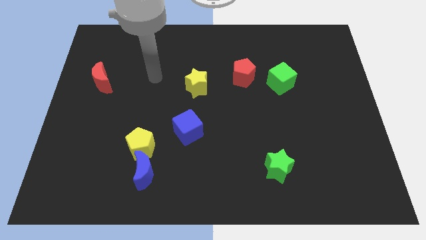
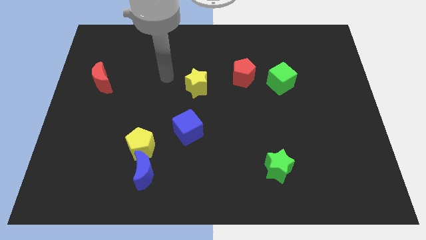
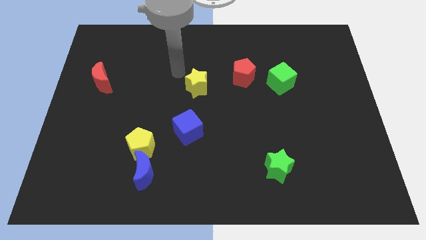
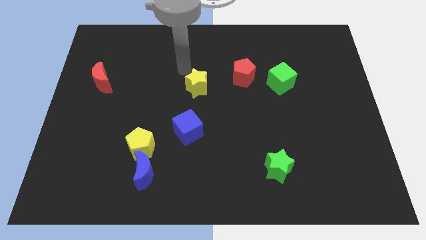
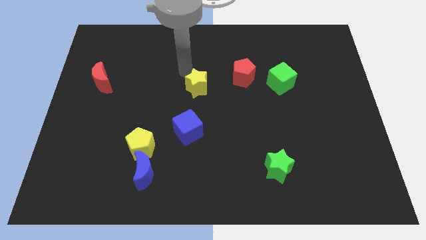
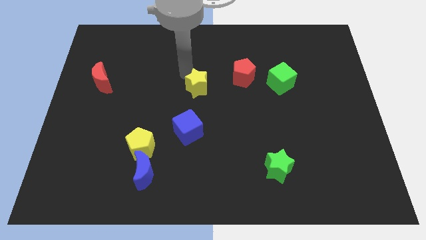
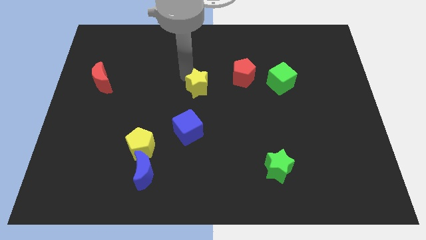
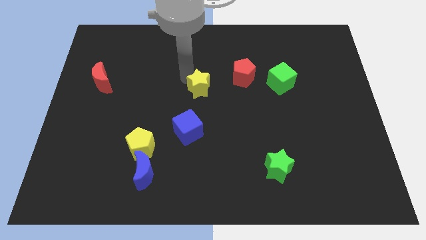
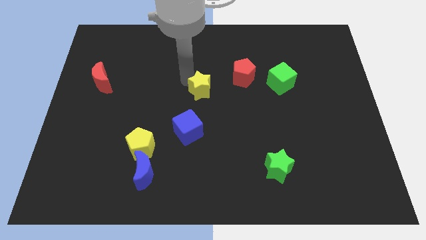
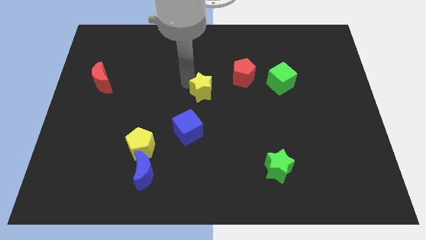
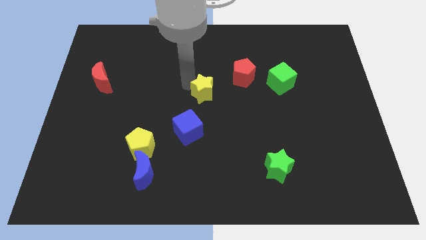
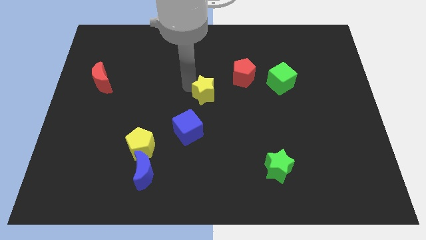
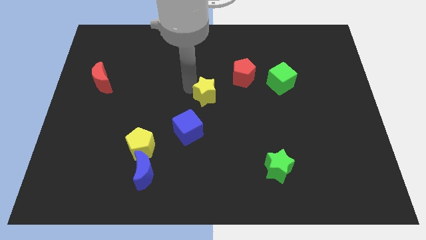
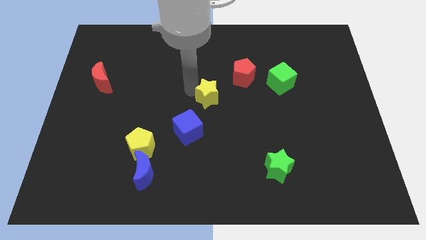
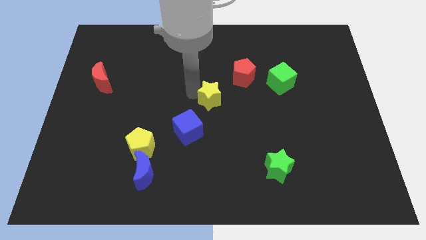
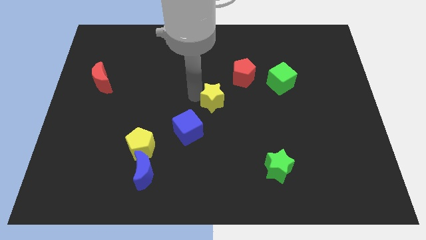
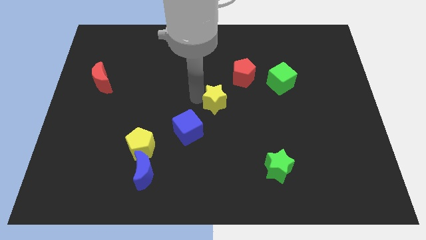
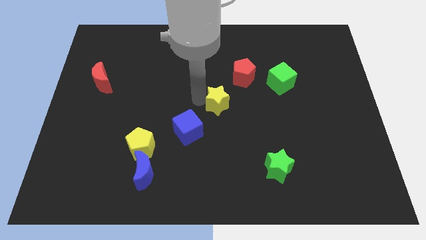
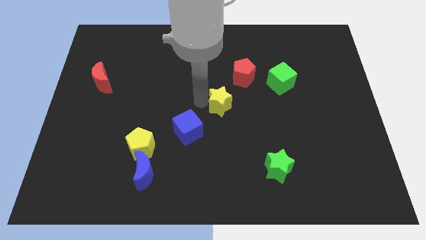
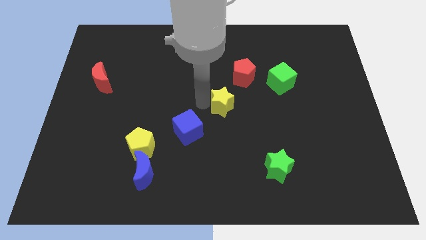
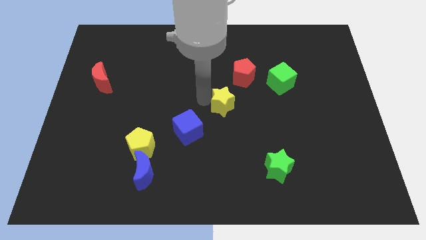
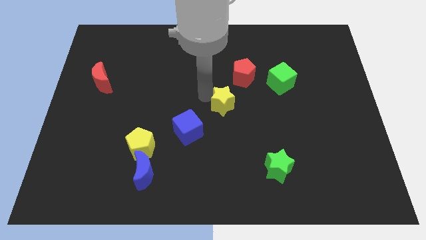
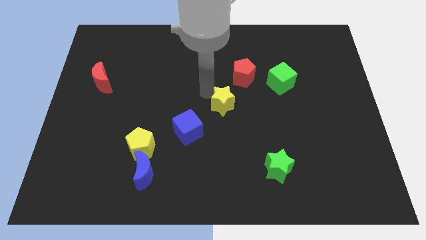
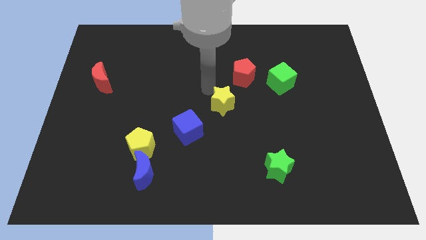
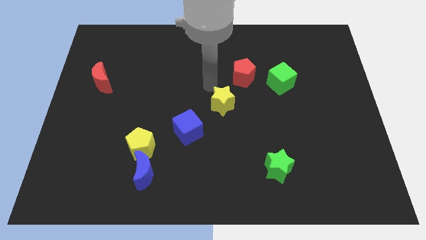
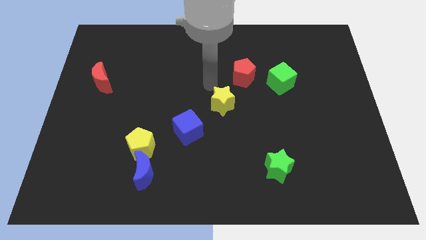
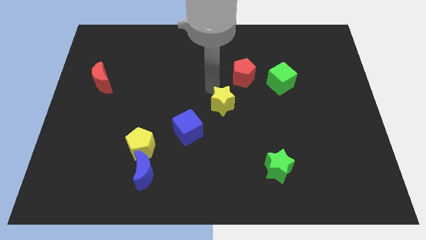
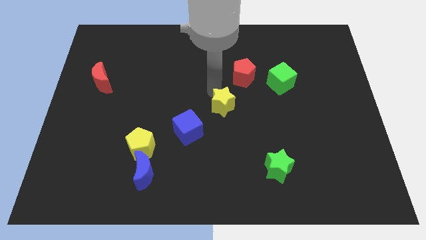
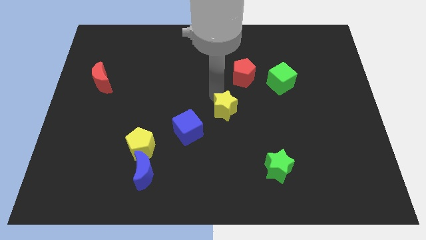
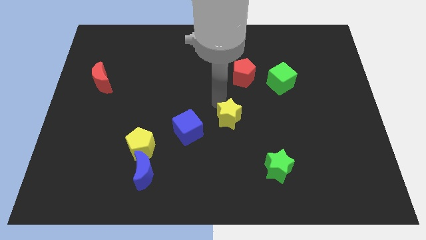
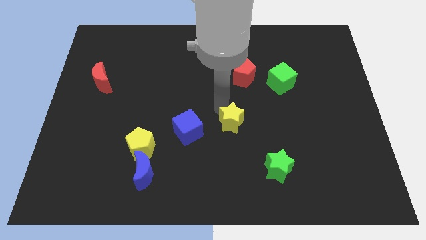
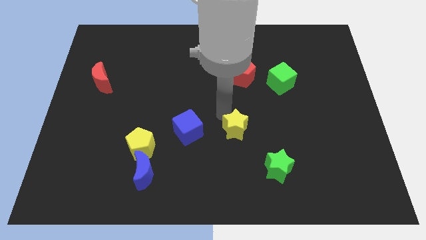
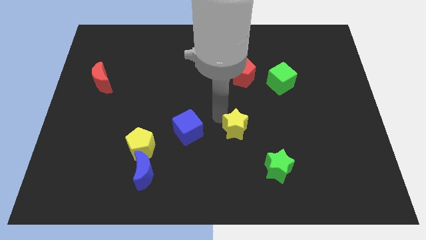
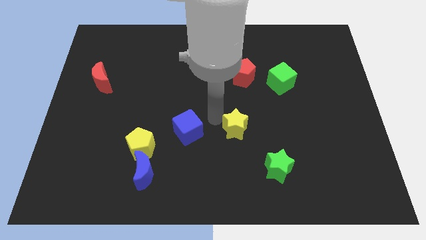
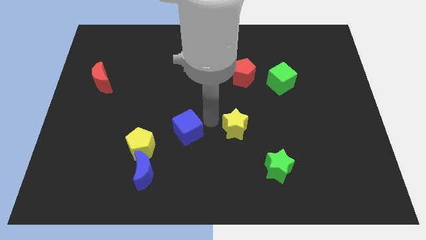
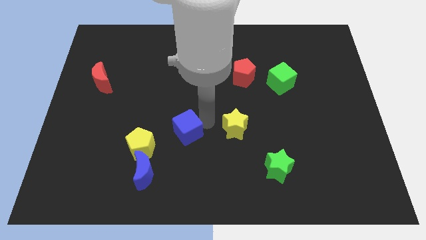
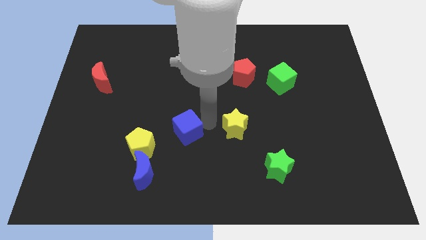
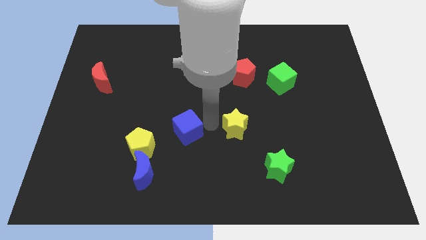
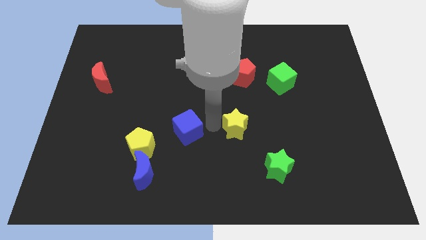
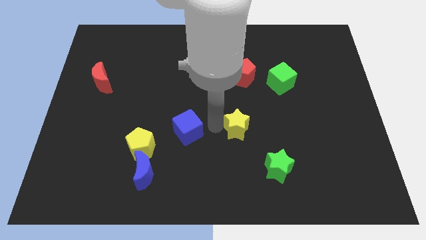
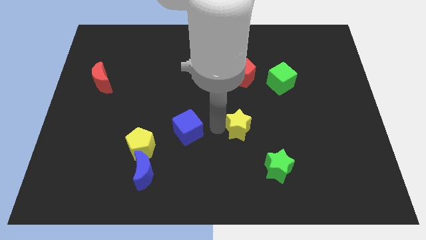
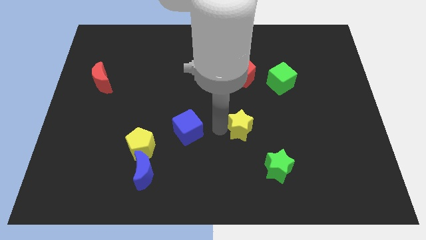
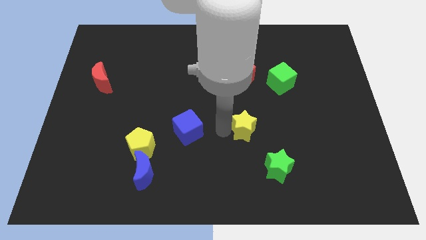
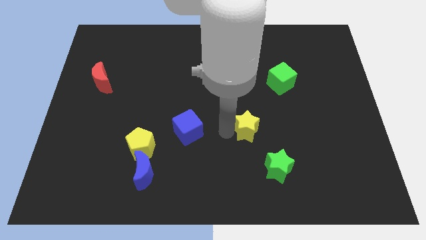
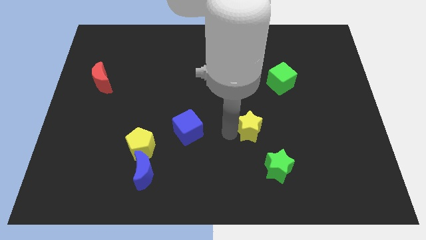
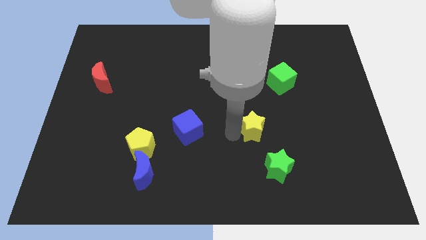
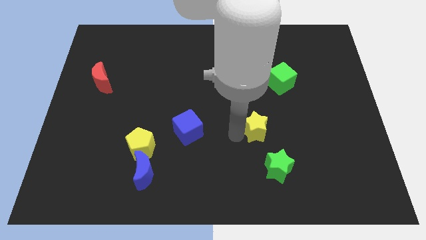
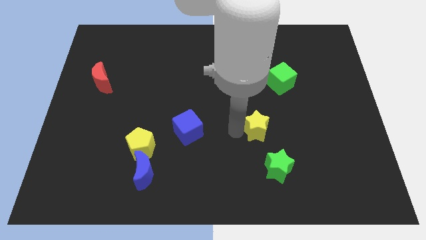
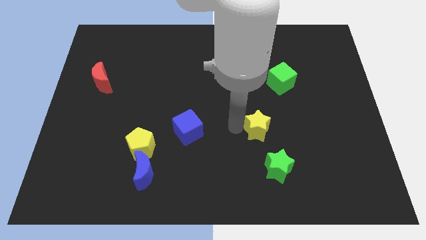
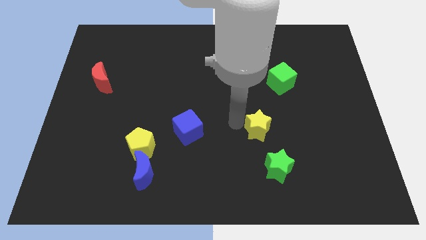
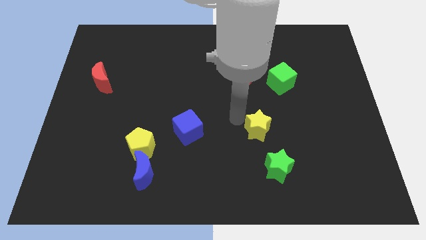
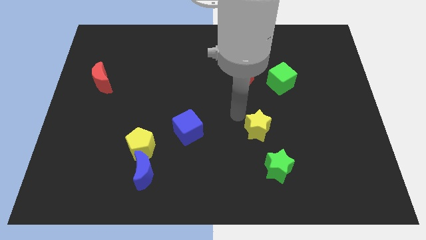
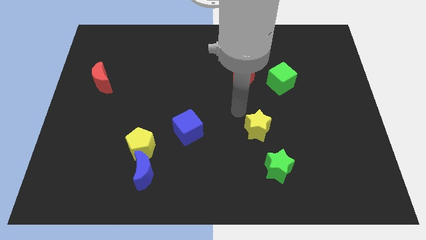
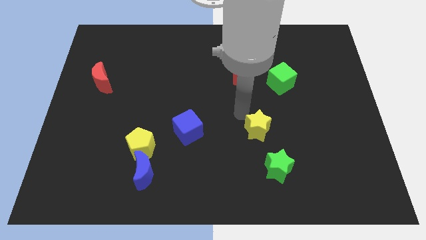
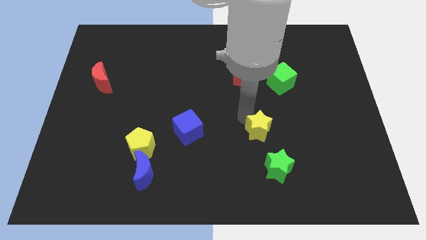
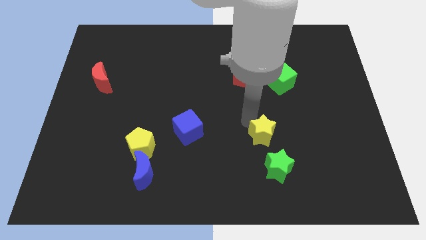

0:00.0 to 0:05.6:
move the yellow star diagonally down and to the right

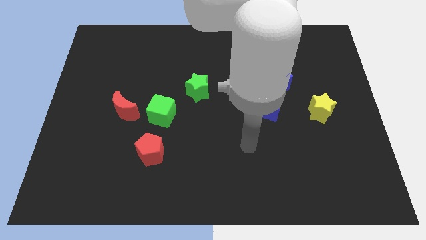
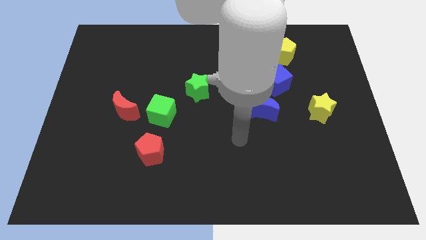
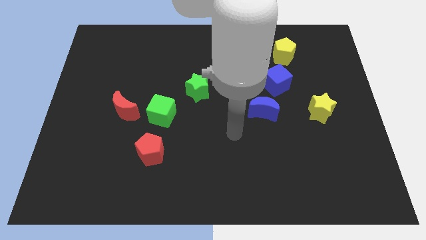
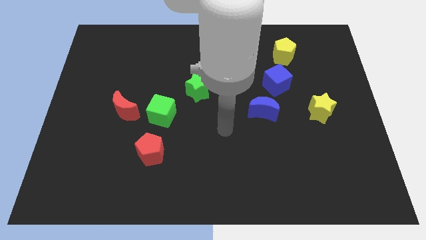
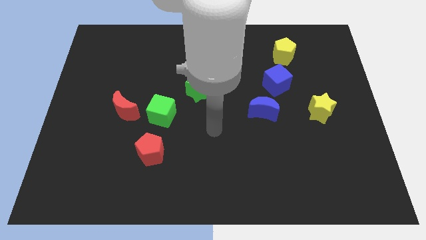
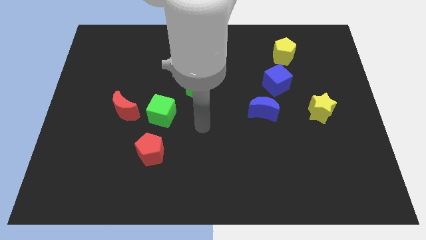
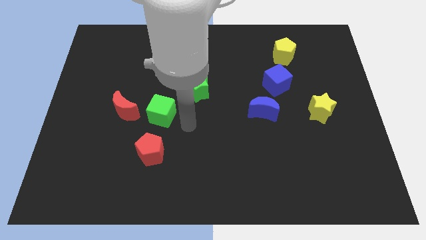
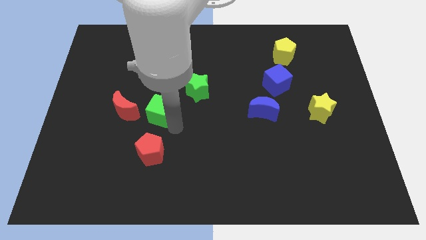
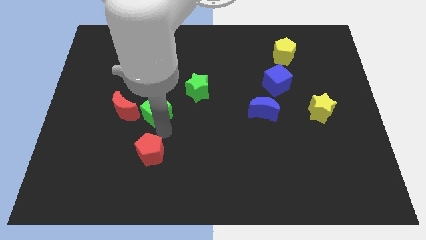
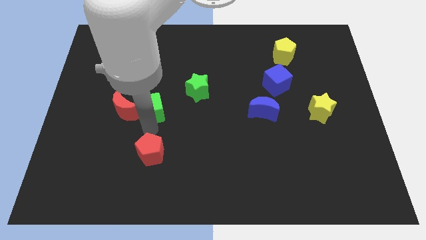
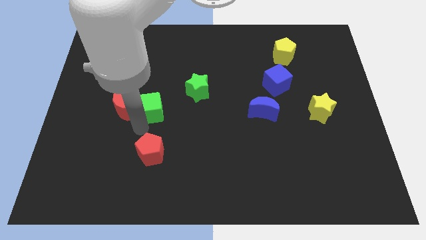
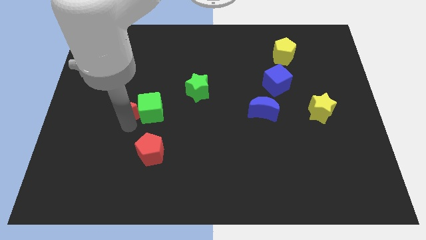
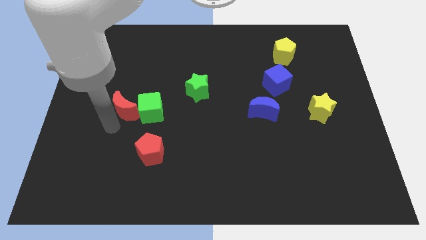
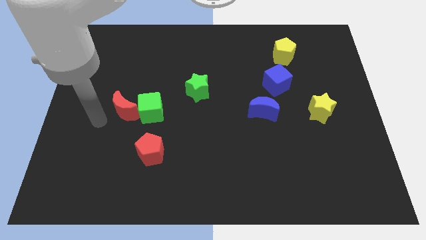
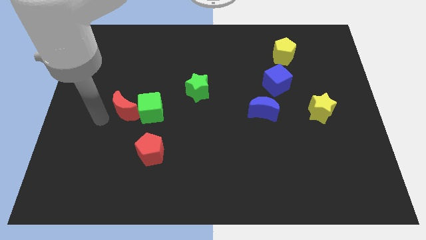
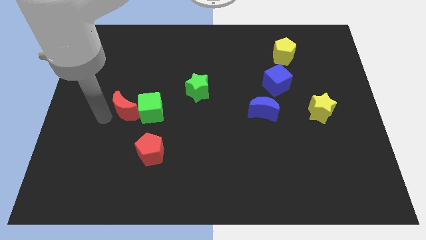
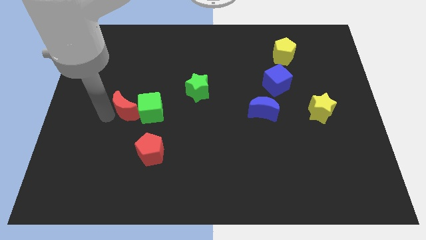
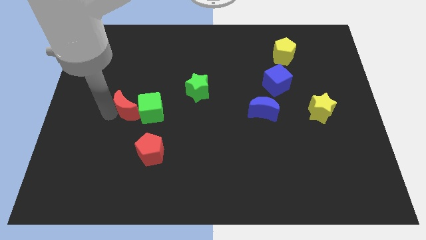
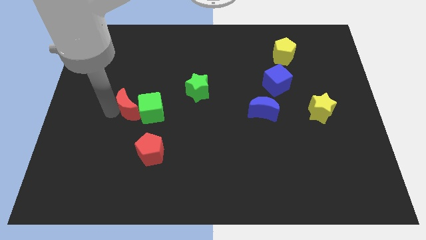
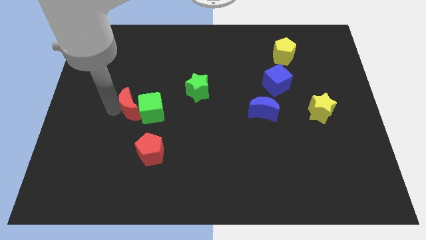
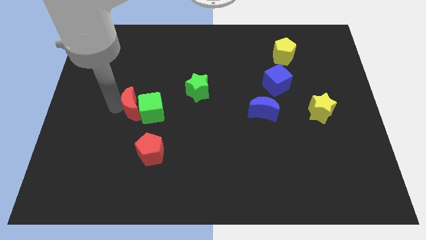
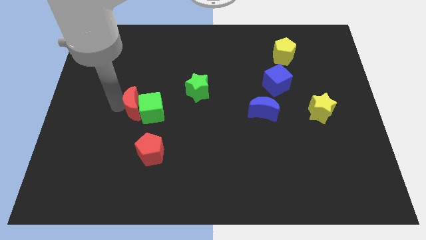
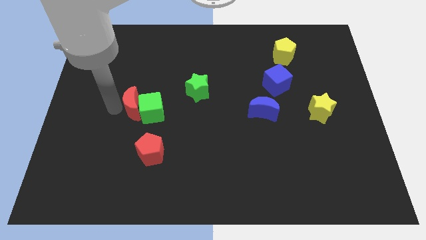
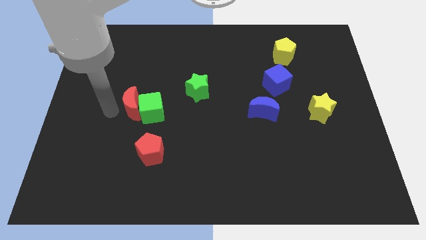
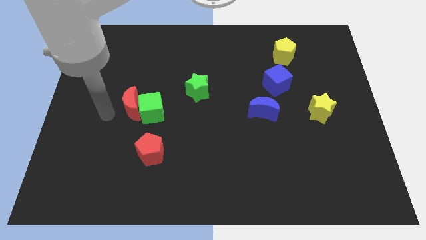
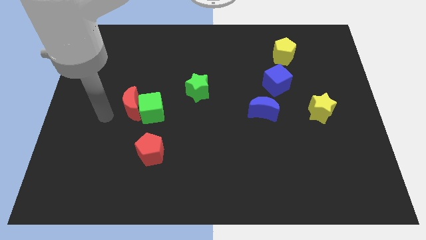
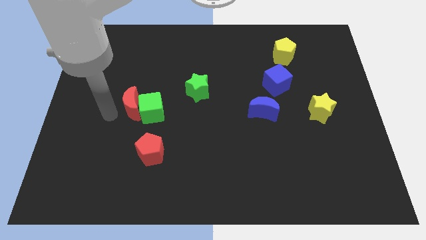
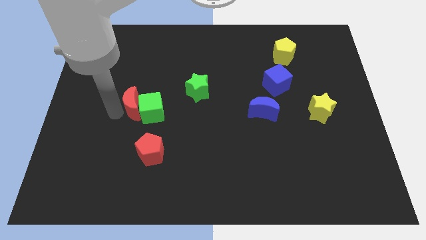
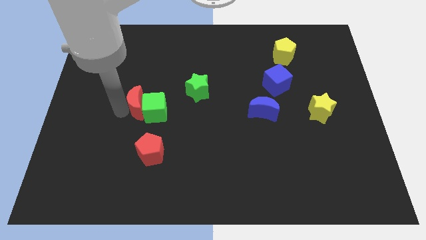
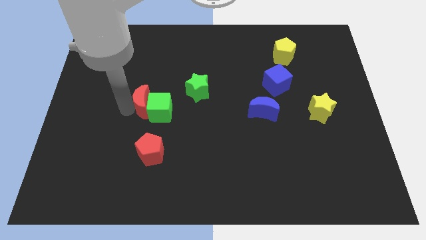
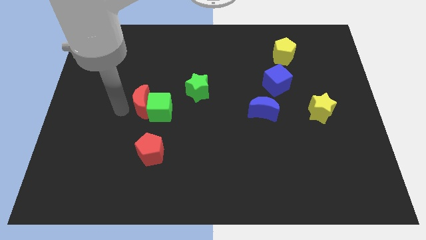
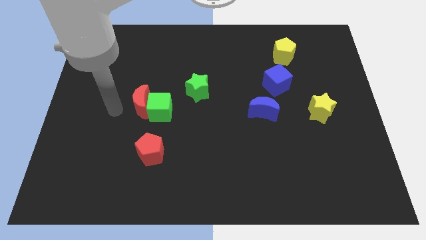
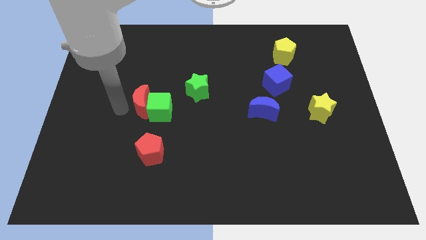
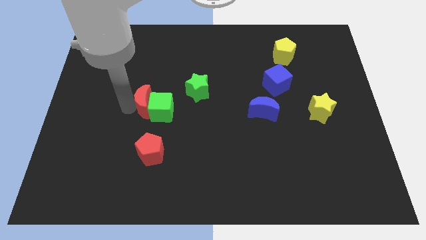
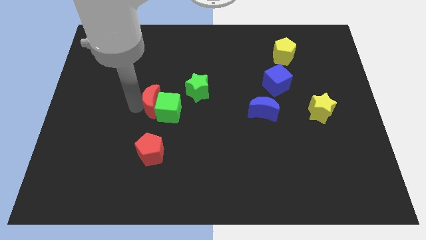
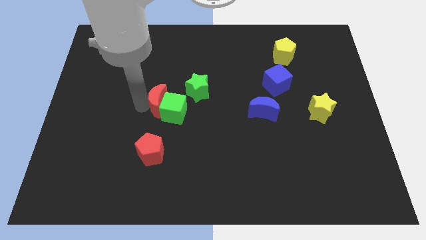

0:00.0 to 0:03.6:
slide the red moon right somewhat
